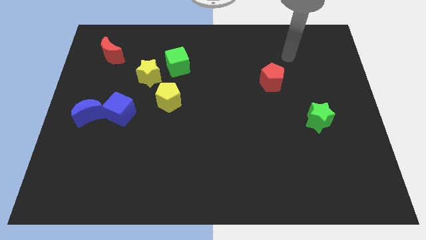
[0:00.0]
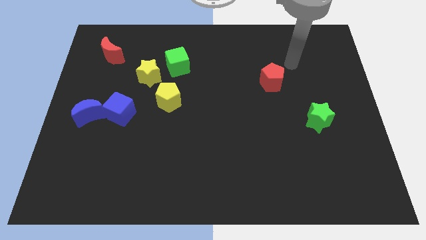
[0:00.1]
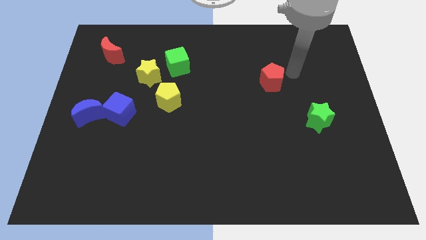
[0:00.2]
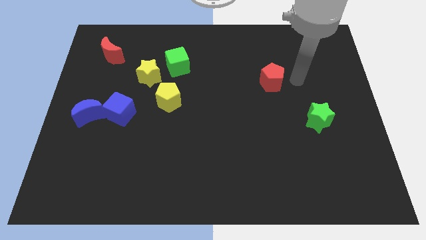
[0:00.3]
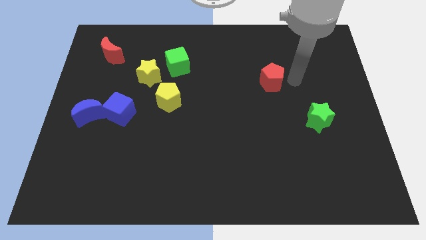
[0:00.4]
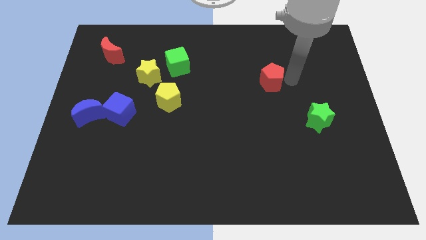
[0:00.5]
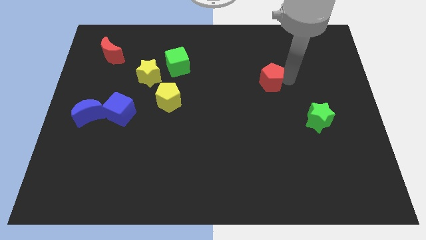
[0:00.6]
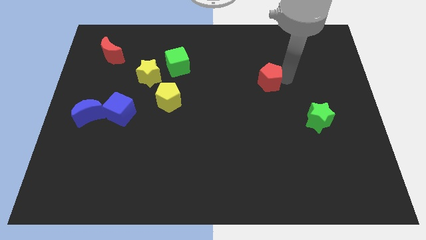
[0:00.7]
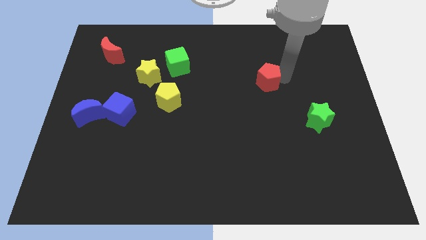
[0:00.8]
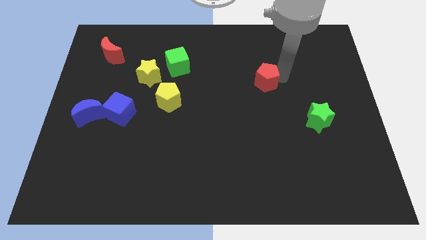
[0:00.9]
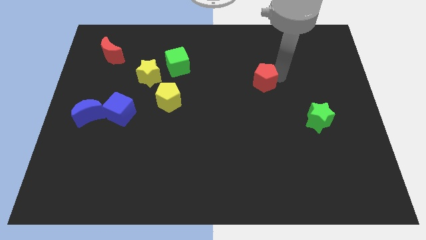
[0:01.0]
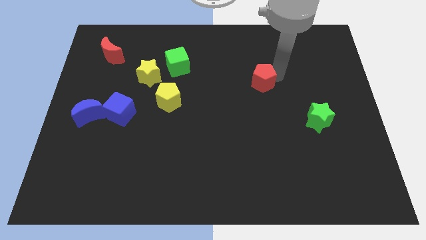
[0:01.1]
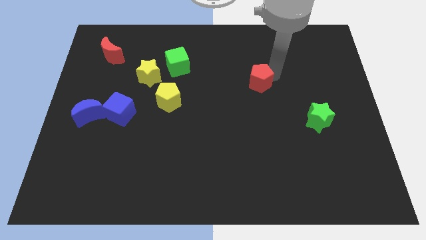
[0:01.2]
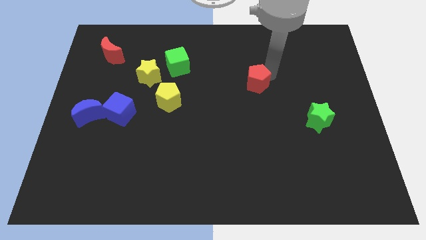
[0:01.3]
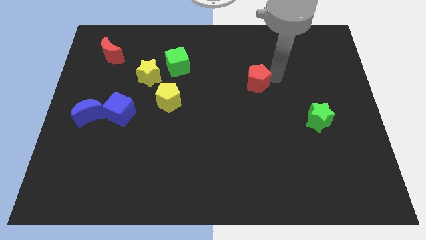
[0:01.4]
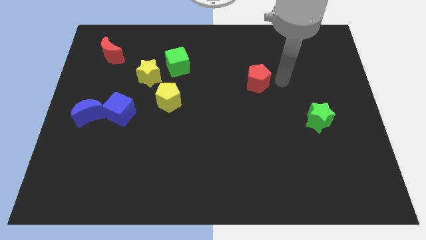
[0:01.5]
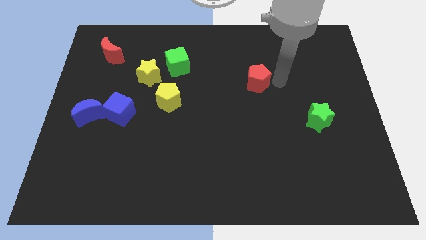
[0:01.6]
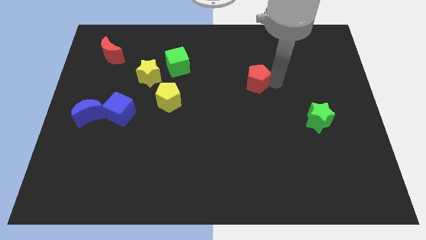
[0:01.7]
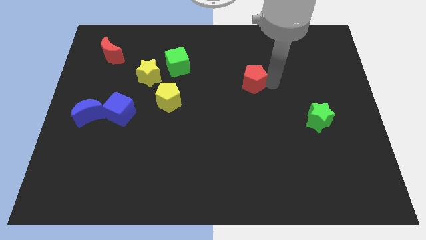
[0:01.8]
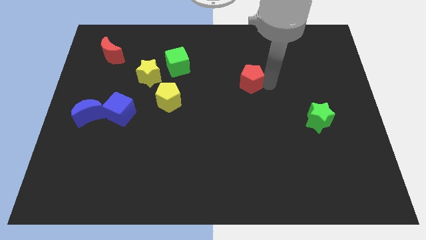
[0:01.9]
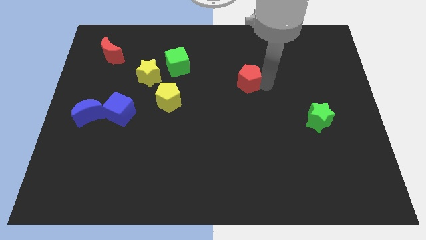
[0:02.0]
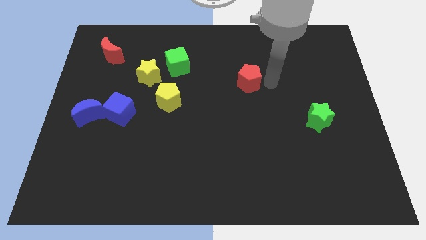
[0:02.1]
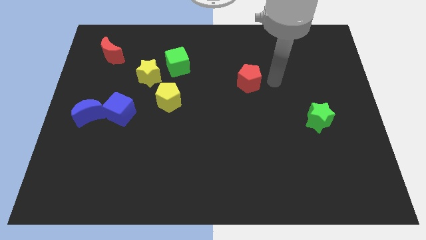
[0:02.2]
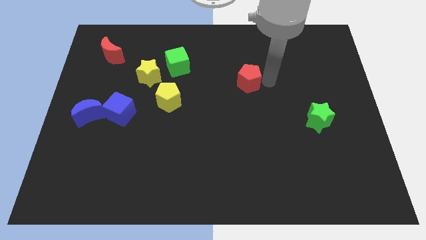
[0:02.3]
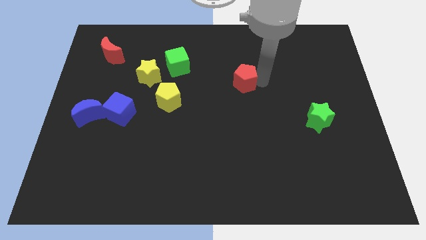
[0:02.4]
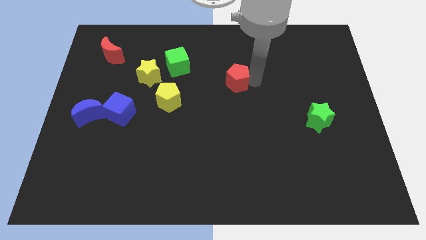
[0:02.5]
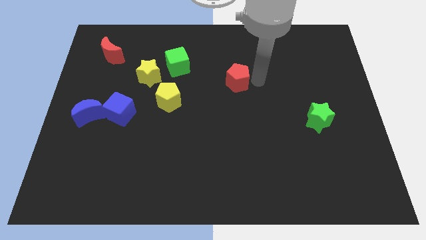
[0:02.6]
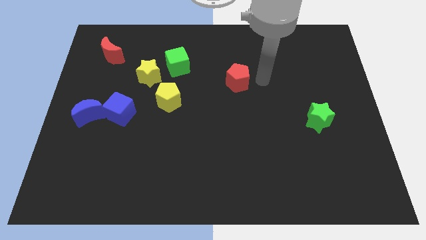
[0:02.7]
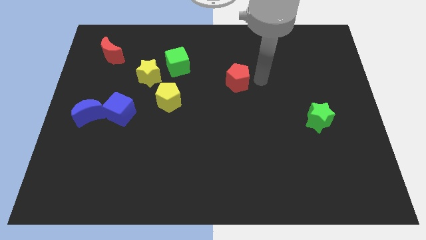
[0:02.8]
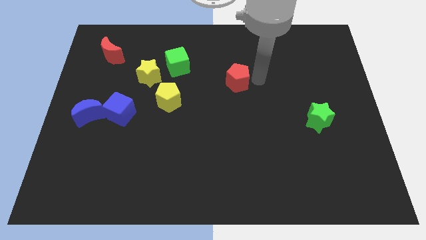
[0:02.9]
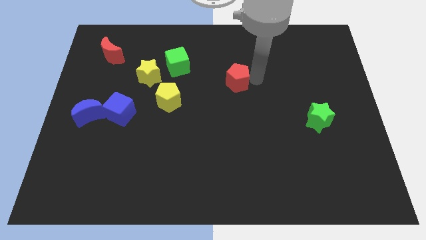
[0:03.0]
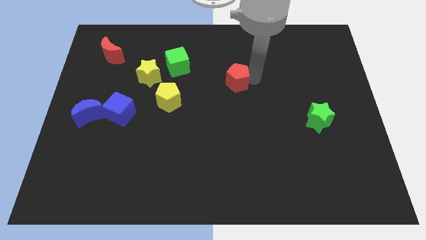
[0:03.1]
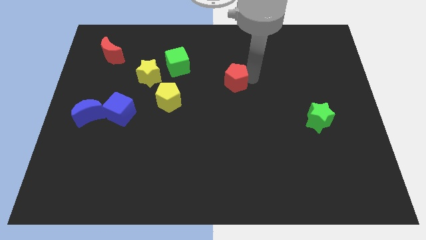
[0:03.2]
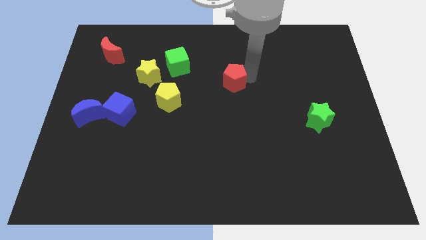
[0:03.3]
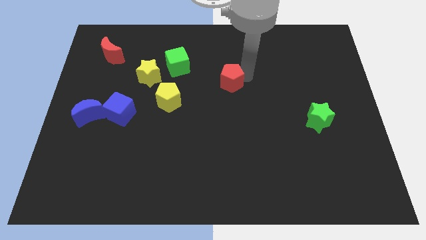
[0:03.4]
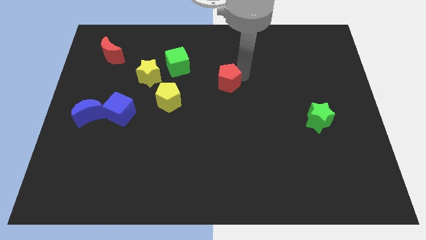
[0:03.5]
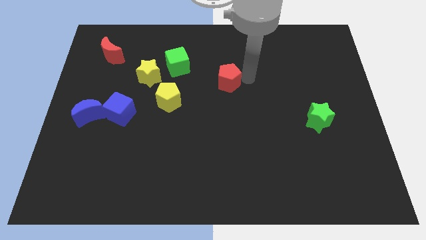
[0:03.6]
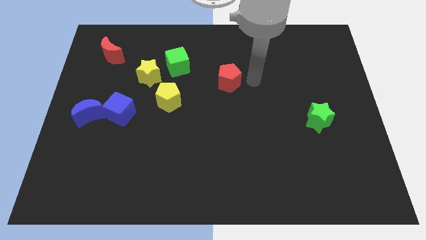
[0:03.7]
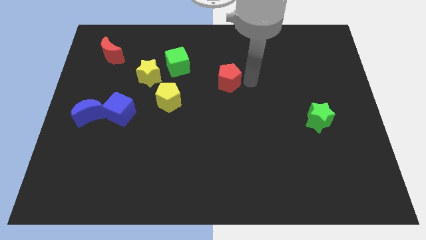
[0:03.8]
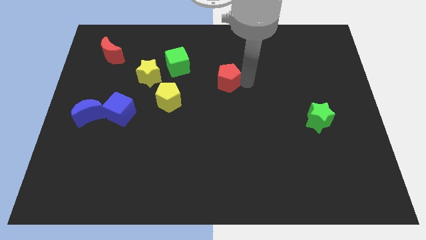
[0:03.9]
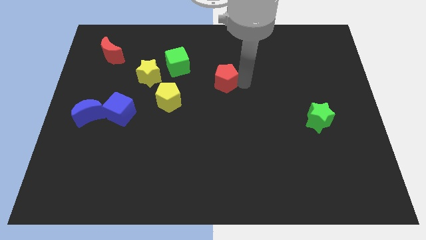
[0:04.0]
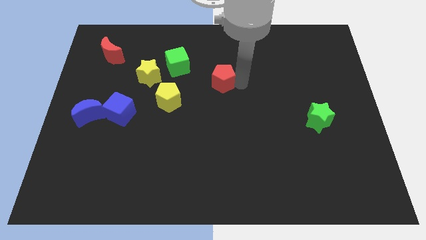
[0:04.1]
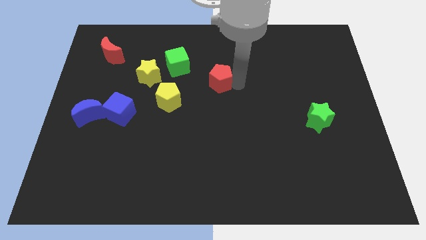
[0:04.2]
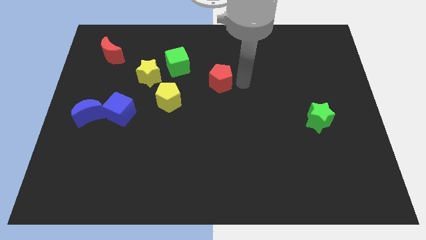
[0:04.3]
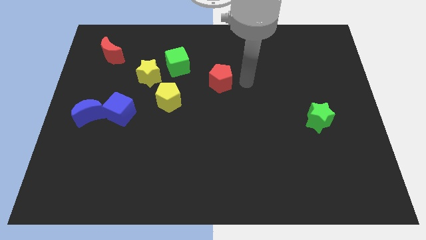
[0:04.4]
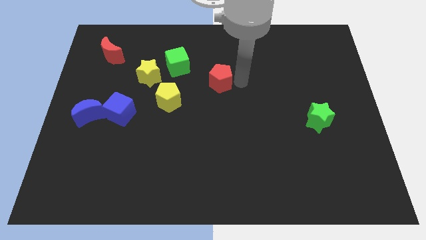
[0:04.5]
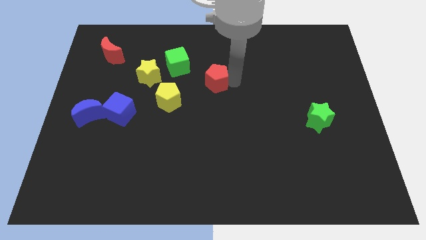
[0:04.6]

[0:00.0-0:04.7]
move the red pentagon to the bottom right side of the green cube

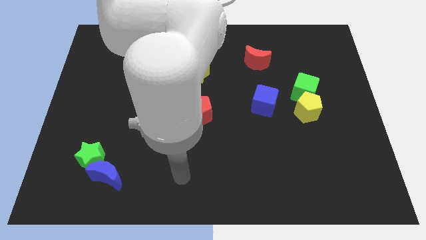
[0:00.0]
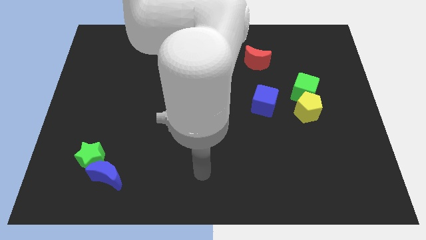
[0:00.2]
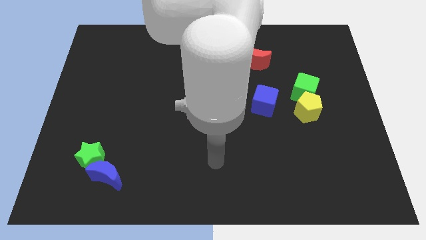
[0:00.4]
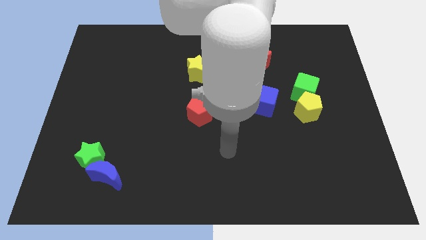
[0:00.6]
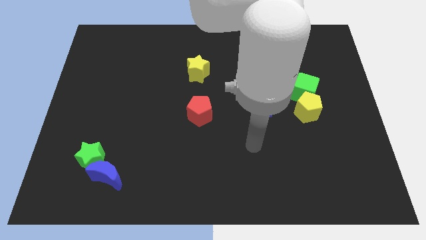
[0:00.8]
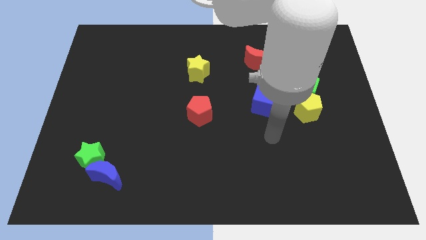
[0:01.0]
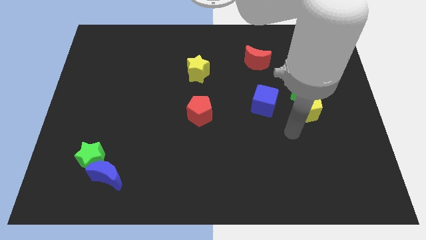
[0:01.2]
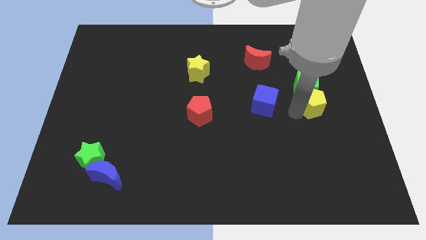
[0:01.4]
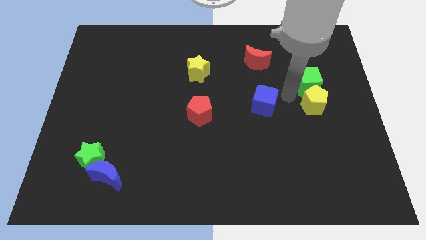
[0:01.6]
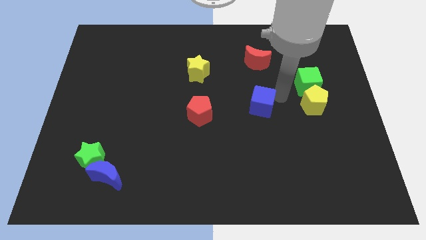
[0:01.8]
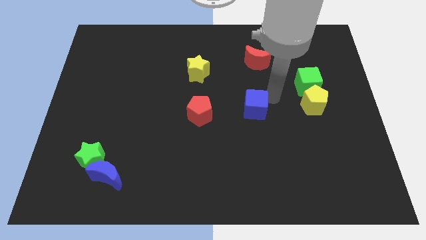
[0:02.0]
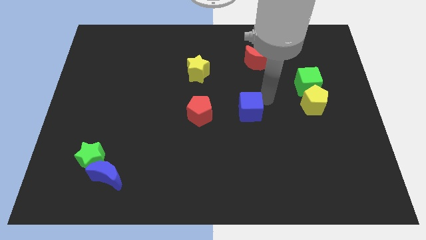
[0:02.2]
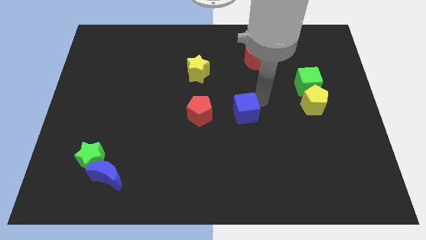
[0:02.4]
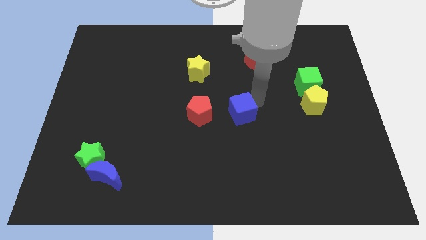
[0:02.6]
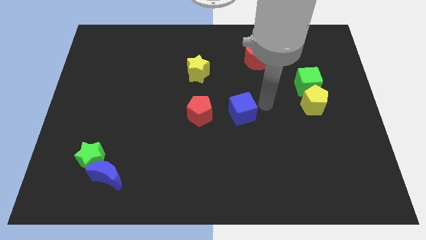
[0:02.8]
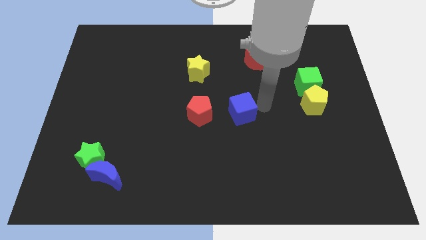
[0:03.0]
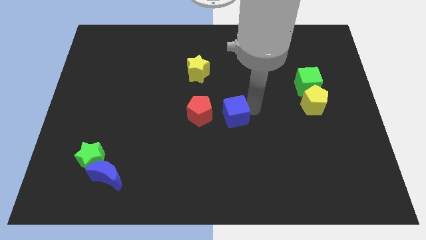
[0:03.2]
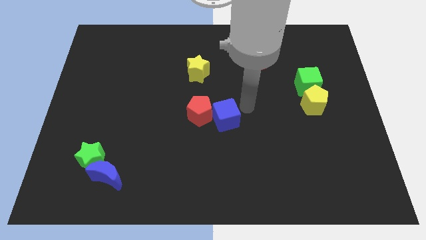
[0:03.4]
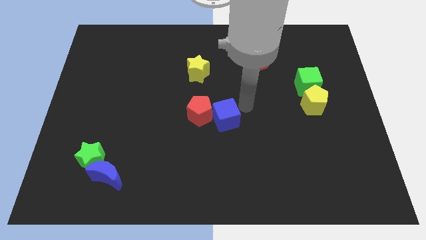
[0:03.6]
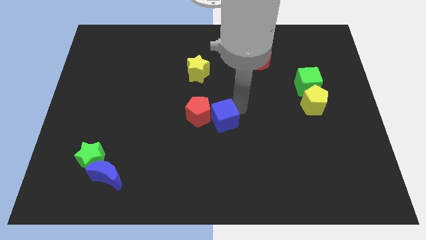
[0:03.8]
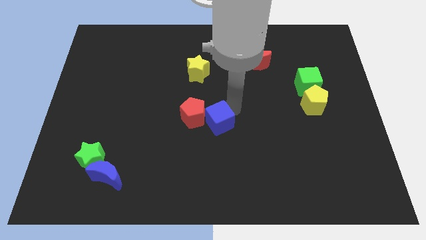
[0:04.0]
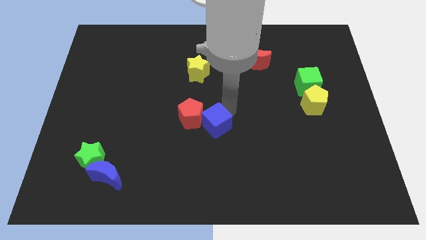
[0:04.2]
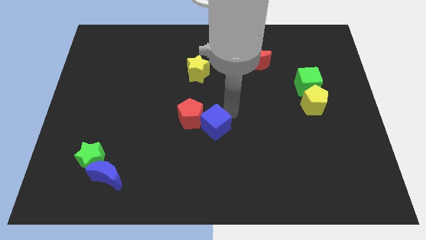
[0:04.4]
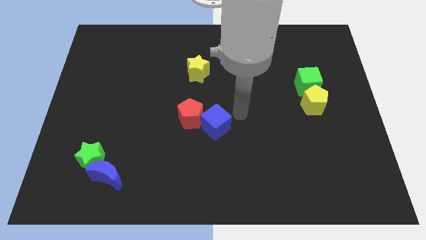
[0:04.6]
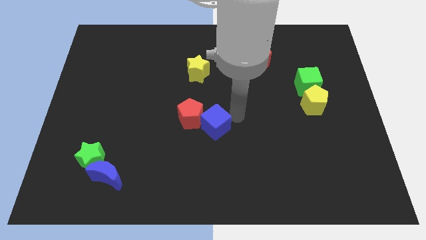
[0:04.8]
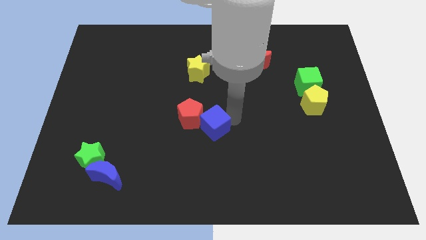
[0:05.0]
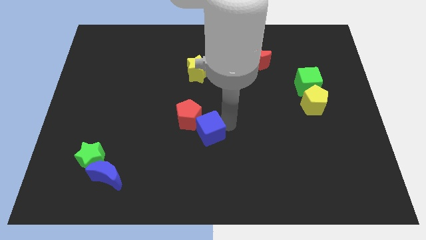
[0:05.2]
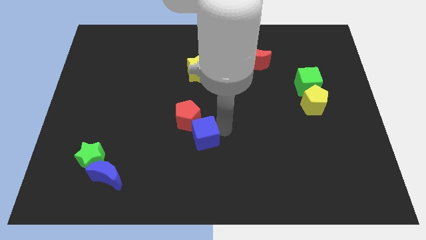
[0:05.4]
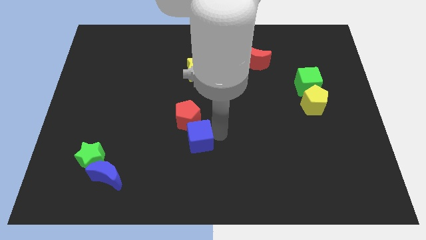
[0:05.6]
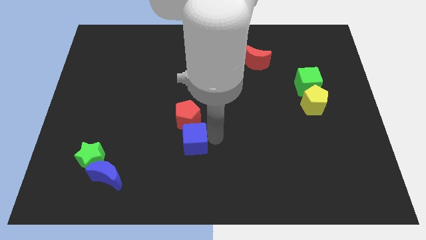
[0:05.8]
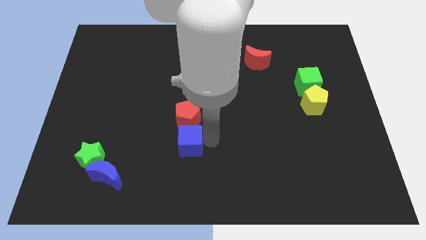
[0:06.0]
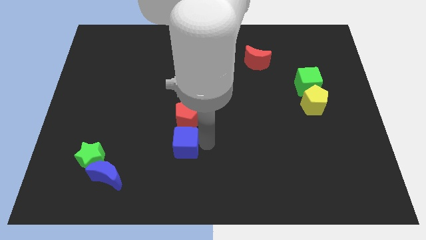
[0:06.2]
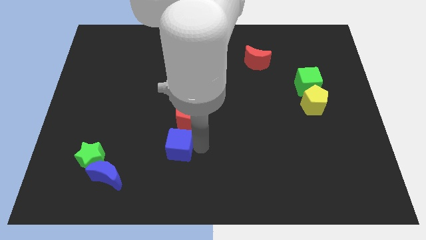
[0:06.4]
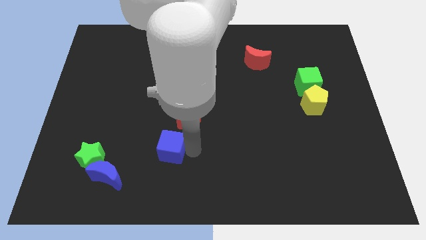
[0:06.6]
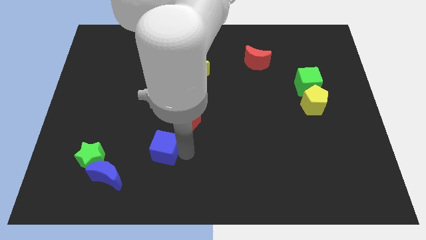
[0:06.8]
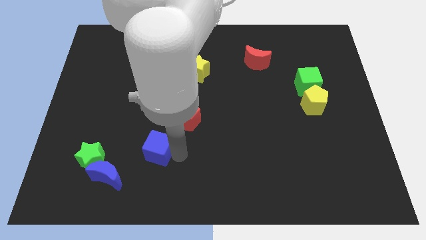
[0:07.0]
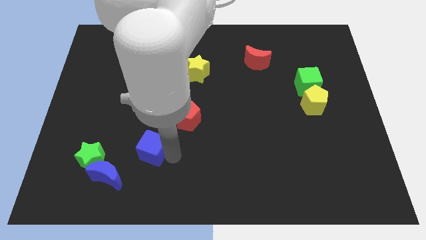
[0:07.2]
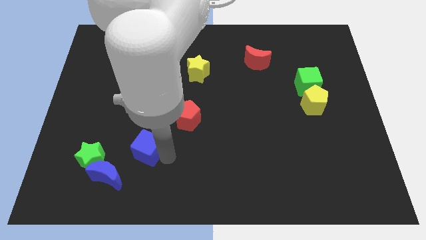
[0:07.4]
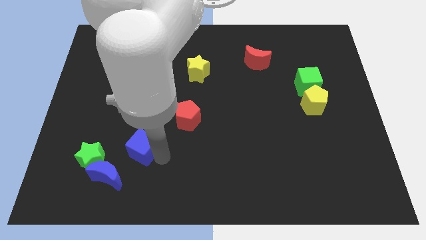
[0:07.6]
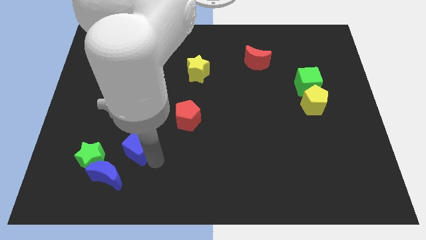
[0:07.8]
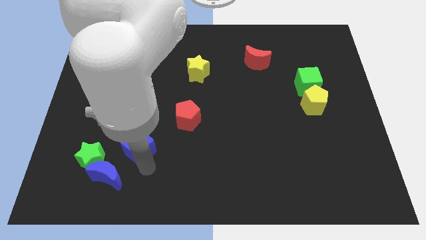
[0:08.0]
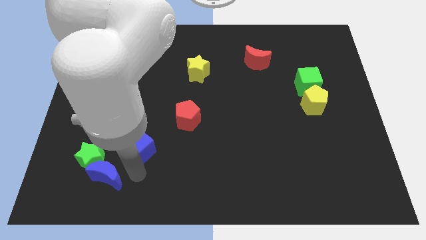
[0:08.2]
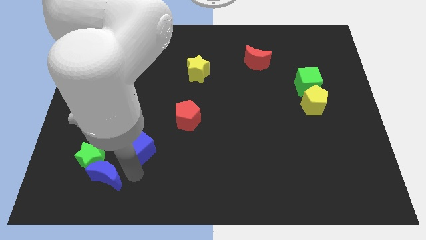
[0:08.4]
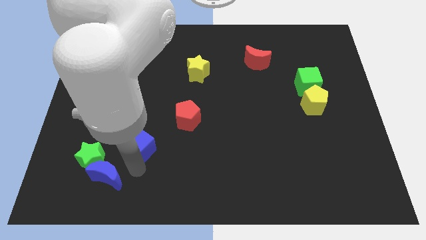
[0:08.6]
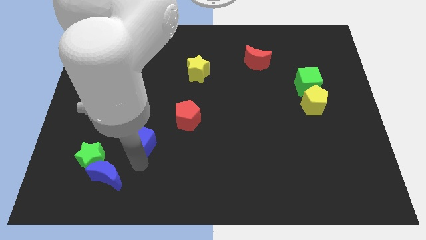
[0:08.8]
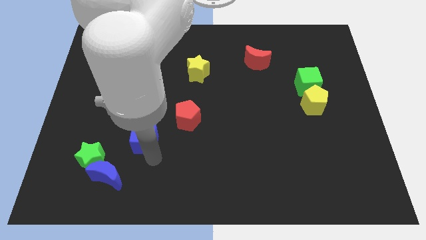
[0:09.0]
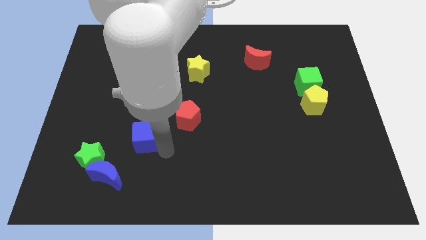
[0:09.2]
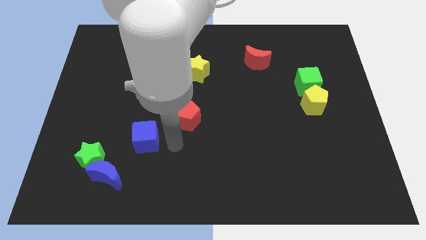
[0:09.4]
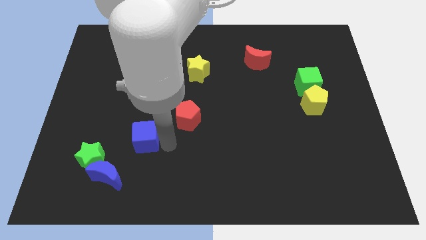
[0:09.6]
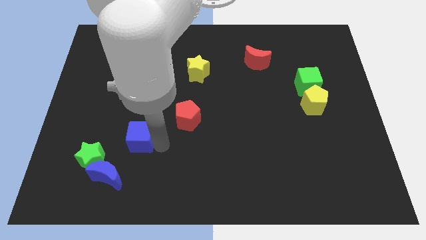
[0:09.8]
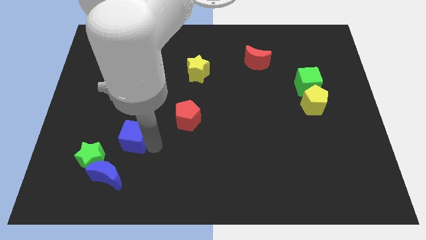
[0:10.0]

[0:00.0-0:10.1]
slide the blue cube to the top side of the blue moon
